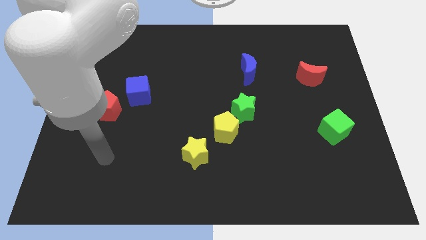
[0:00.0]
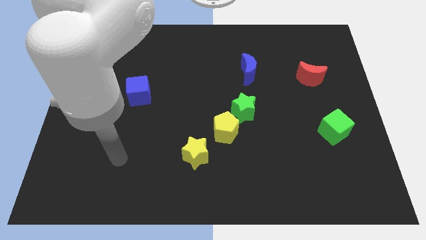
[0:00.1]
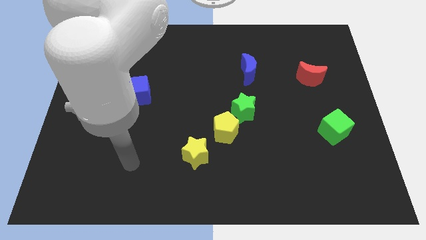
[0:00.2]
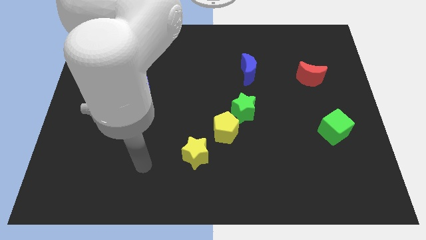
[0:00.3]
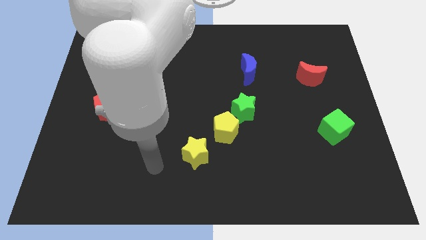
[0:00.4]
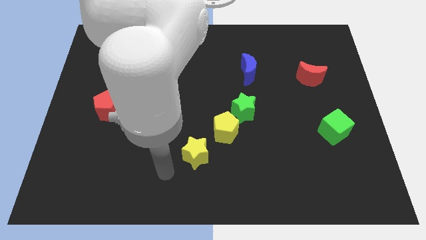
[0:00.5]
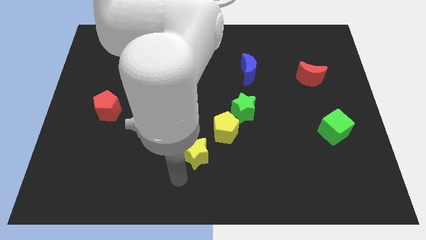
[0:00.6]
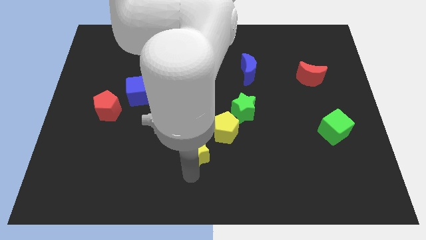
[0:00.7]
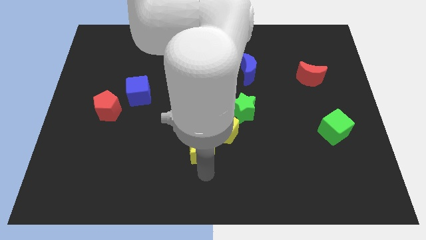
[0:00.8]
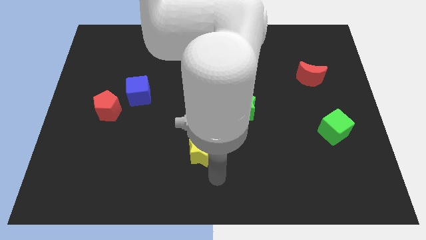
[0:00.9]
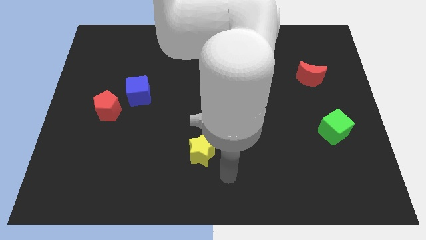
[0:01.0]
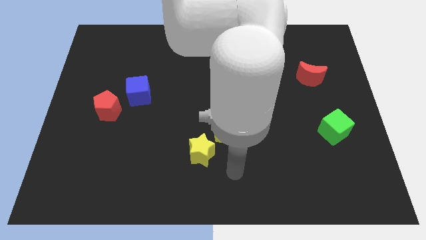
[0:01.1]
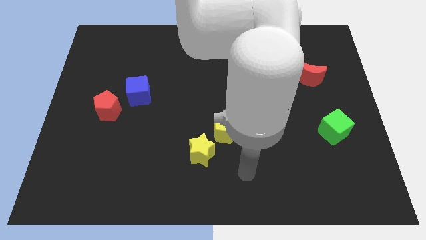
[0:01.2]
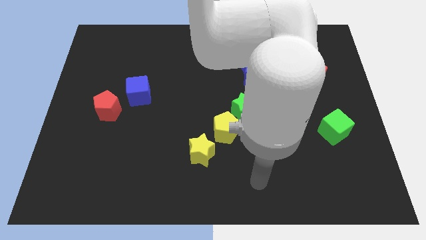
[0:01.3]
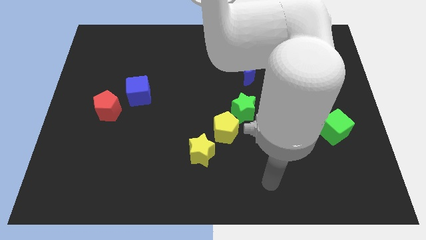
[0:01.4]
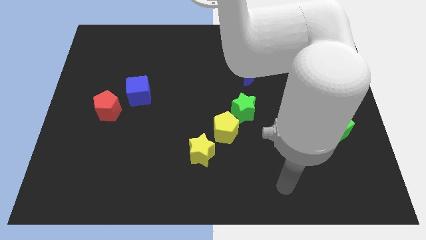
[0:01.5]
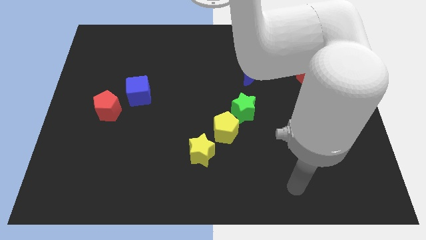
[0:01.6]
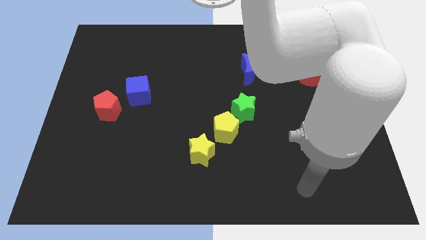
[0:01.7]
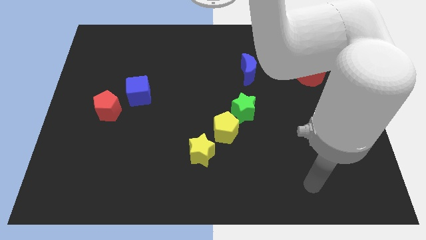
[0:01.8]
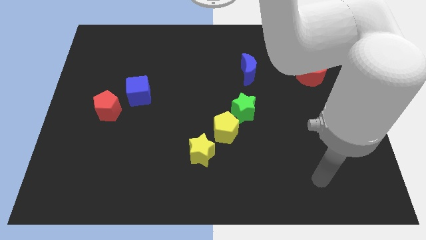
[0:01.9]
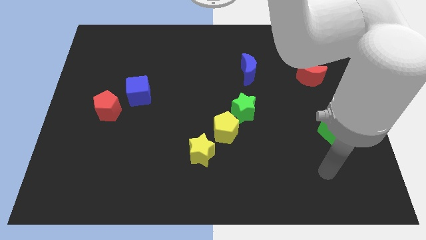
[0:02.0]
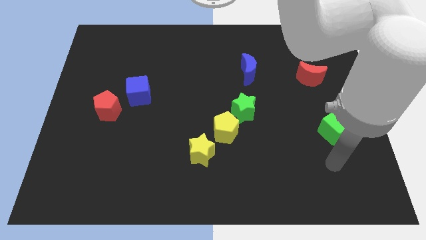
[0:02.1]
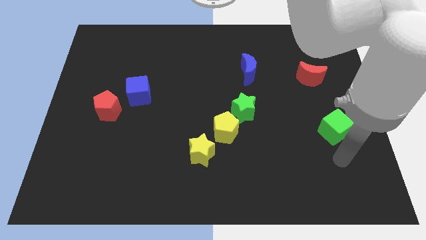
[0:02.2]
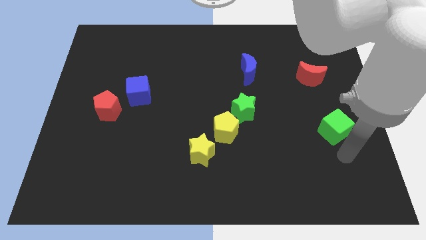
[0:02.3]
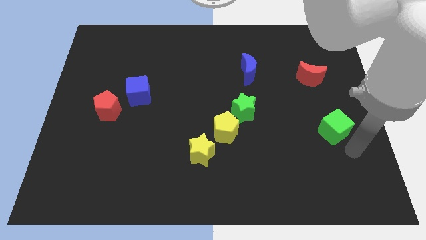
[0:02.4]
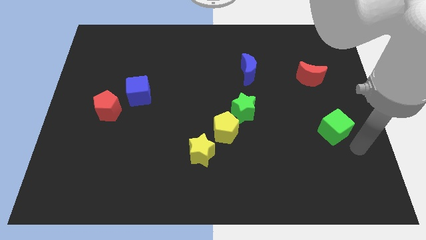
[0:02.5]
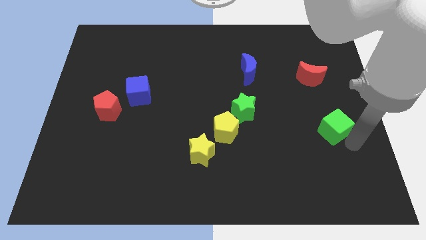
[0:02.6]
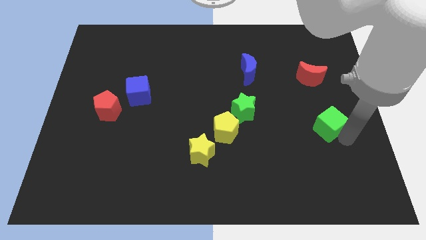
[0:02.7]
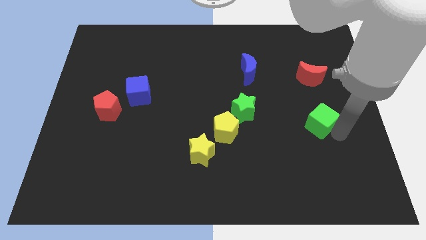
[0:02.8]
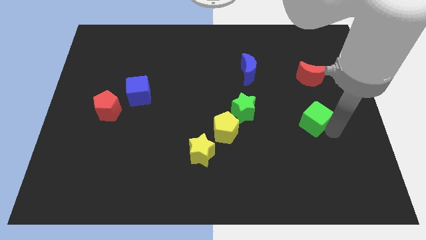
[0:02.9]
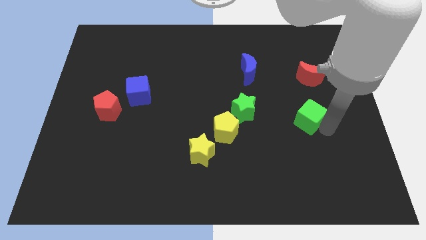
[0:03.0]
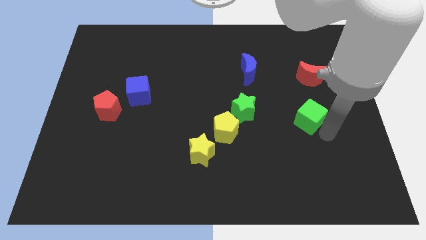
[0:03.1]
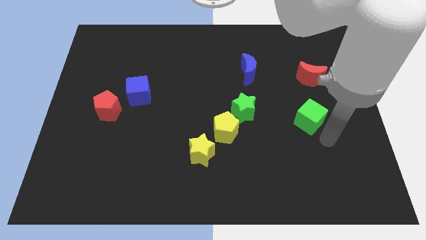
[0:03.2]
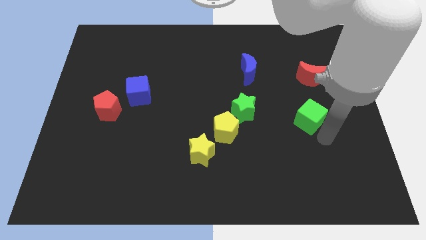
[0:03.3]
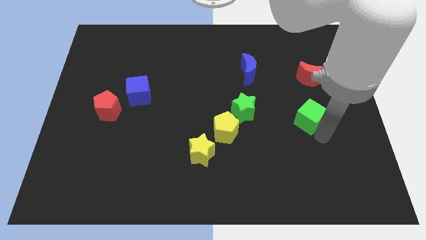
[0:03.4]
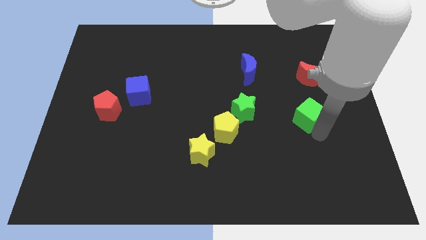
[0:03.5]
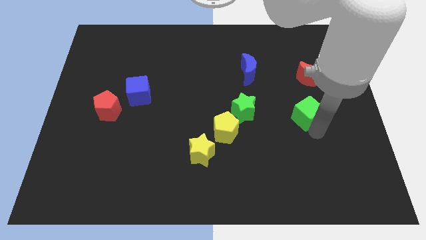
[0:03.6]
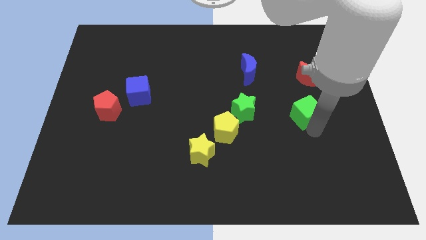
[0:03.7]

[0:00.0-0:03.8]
move the green cube diagonally up and left a bit

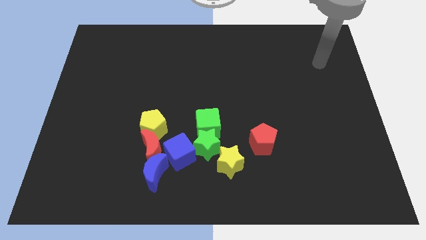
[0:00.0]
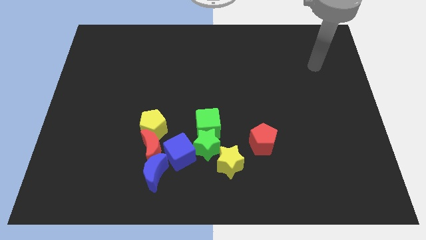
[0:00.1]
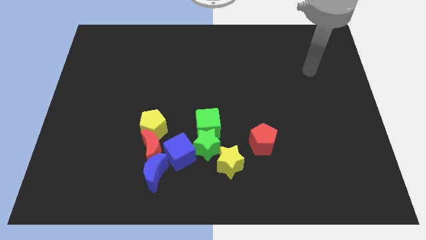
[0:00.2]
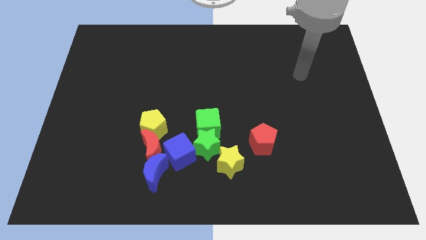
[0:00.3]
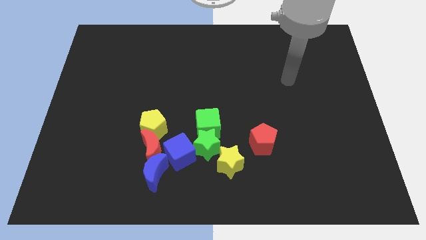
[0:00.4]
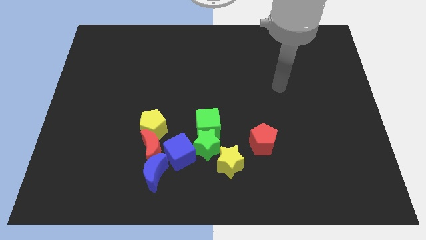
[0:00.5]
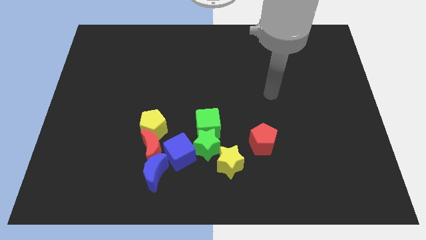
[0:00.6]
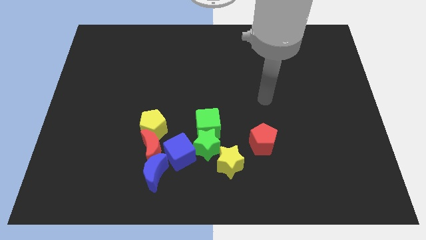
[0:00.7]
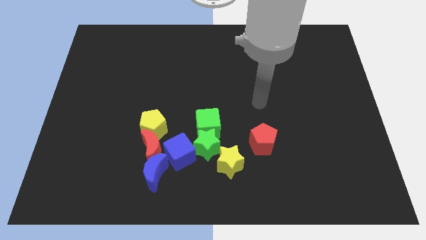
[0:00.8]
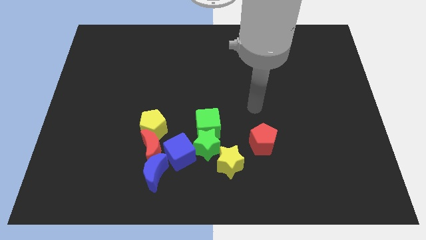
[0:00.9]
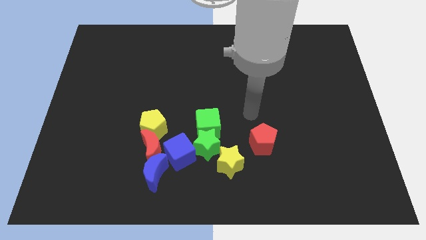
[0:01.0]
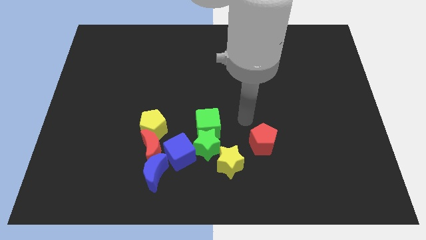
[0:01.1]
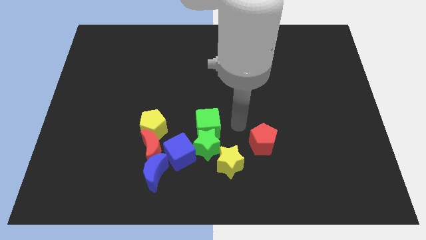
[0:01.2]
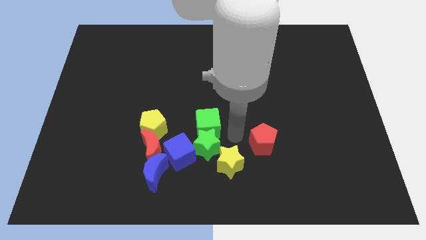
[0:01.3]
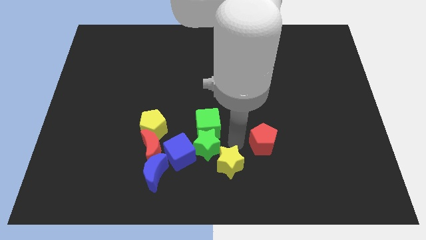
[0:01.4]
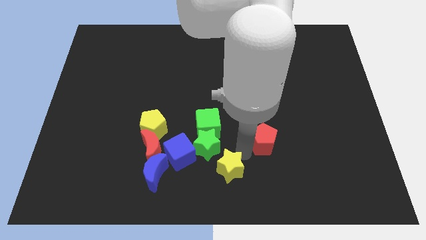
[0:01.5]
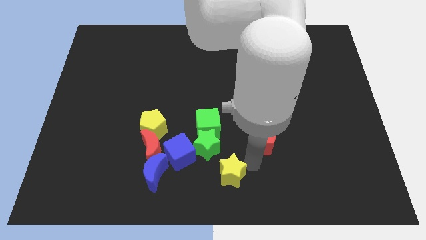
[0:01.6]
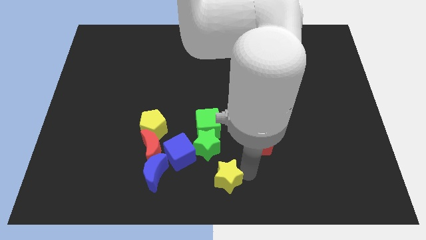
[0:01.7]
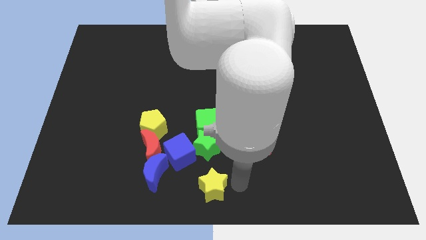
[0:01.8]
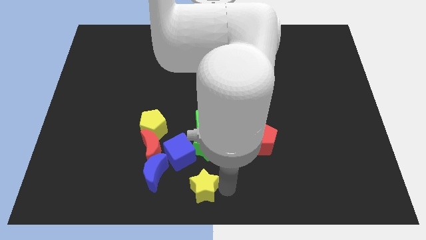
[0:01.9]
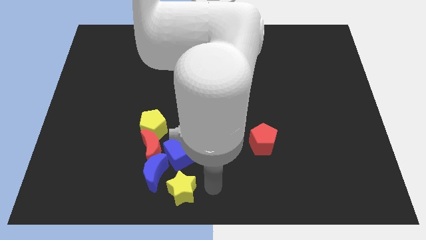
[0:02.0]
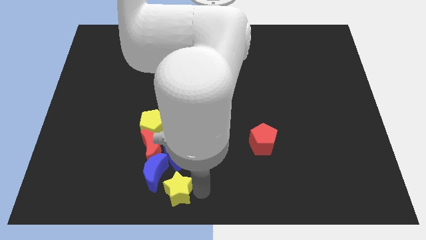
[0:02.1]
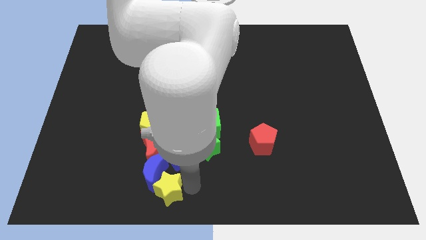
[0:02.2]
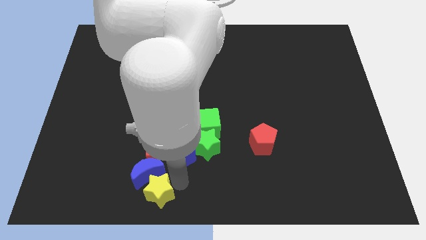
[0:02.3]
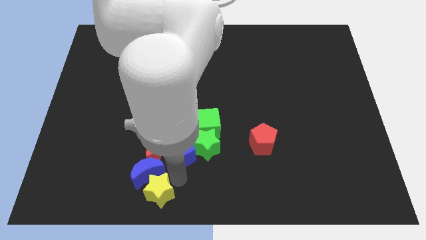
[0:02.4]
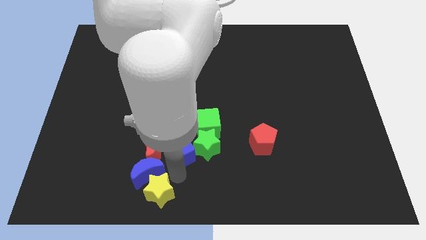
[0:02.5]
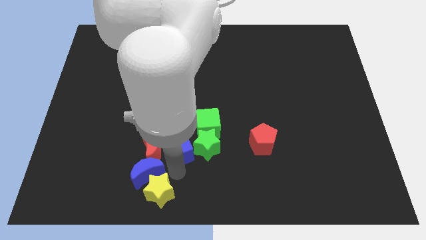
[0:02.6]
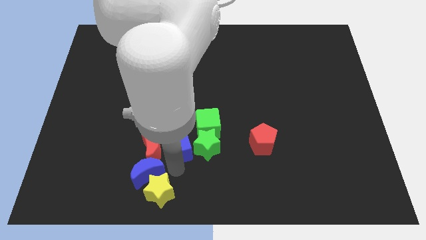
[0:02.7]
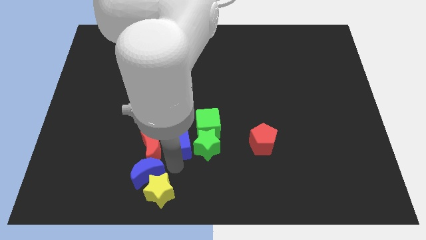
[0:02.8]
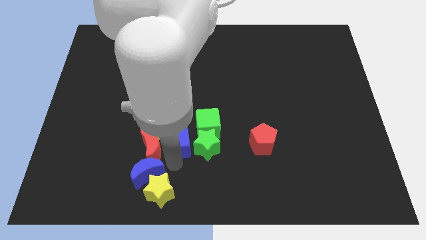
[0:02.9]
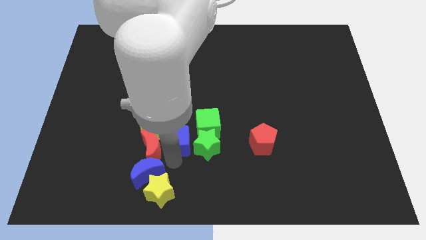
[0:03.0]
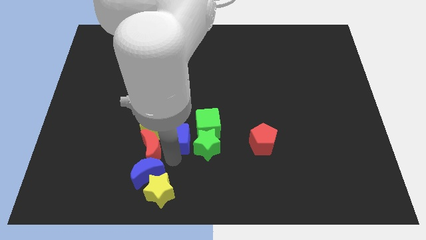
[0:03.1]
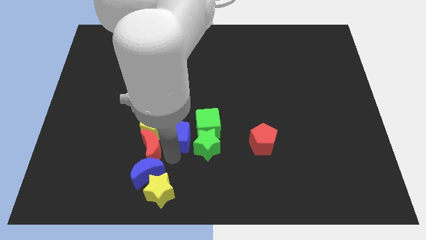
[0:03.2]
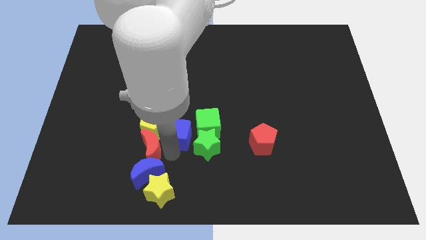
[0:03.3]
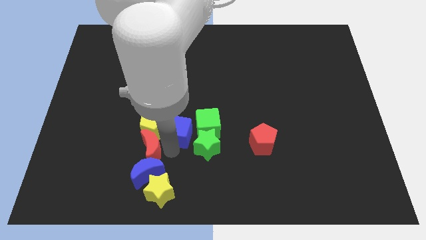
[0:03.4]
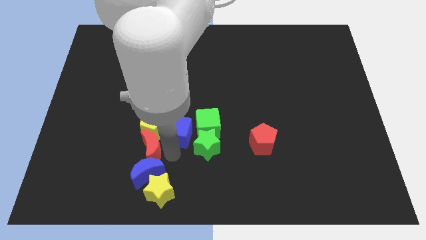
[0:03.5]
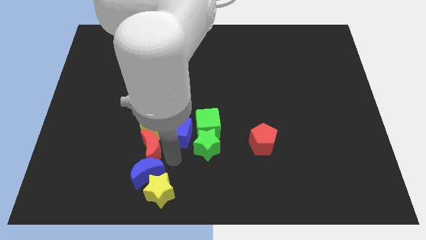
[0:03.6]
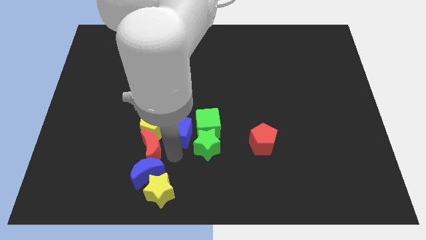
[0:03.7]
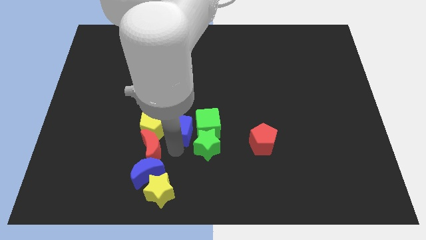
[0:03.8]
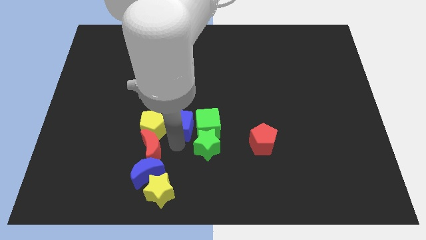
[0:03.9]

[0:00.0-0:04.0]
slide the blue cube a bit up

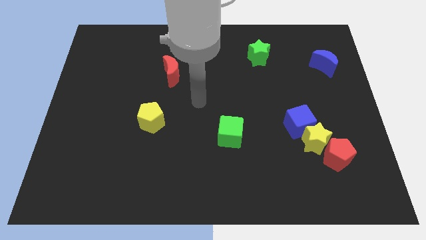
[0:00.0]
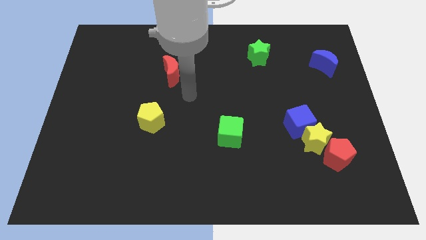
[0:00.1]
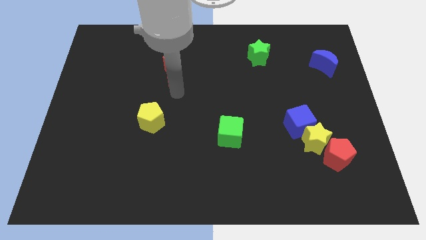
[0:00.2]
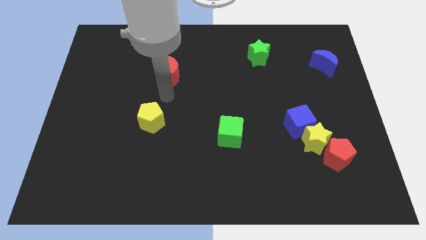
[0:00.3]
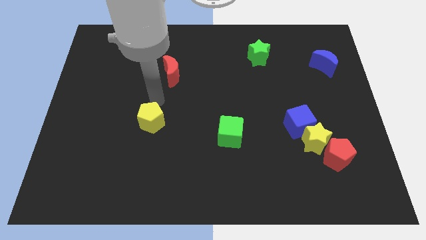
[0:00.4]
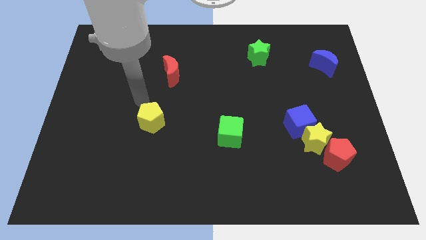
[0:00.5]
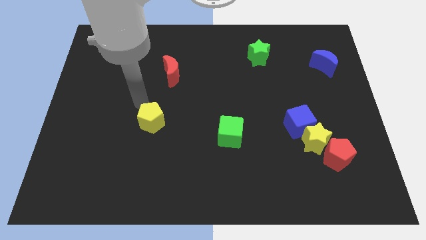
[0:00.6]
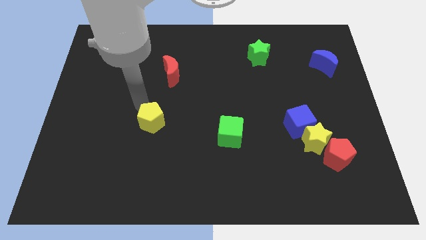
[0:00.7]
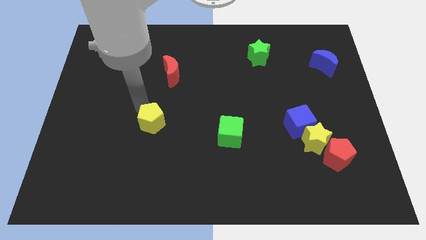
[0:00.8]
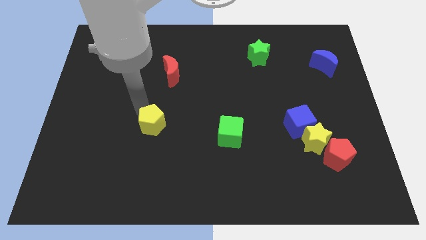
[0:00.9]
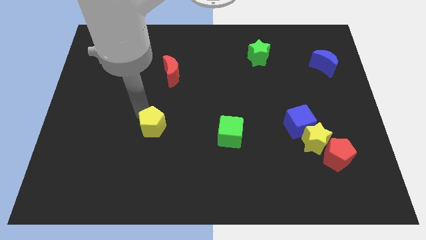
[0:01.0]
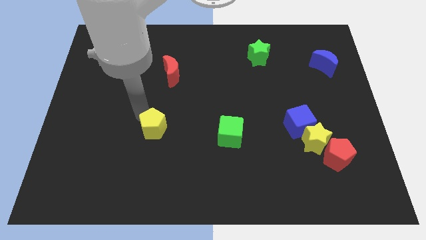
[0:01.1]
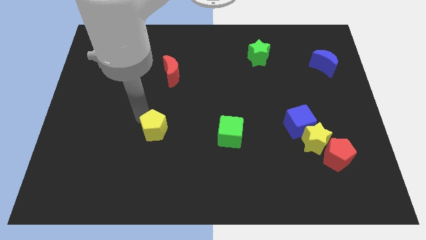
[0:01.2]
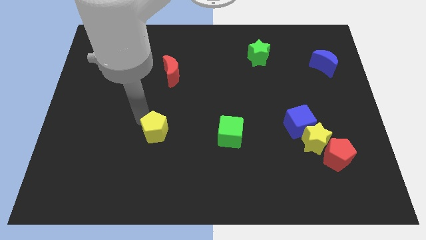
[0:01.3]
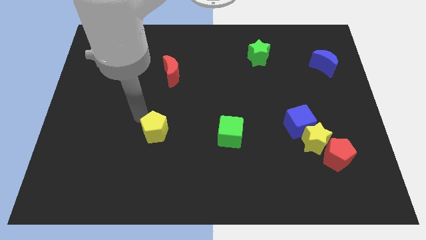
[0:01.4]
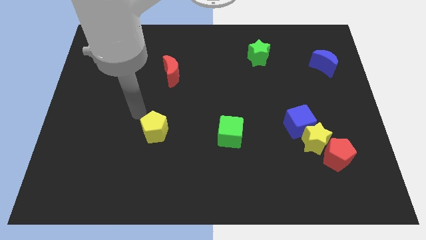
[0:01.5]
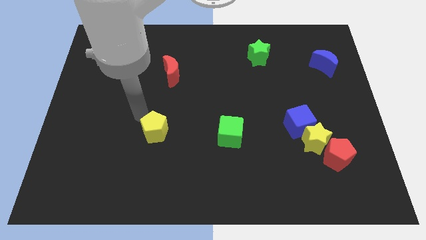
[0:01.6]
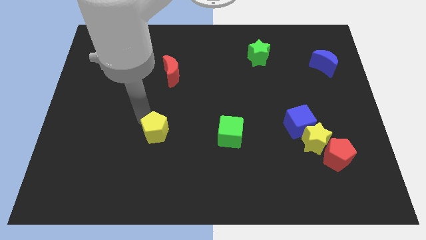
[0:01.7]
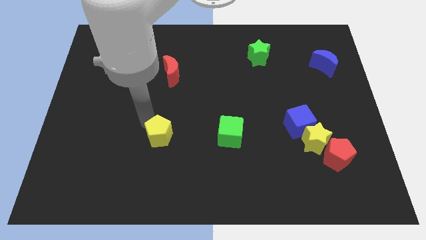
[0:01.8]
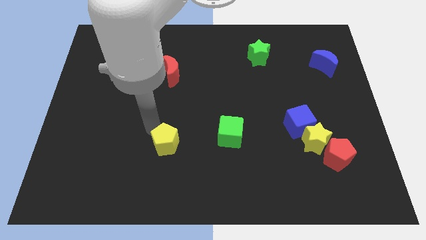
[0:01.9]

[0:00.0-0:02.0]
slightly slide the yellow pentagon down and right diagonally
